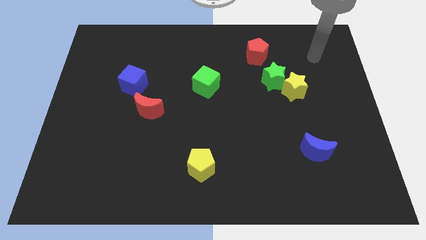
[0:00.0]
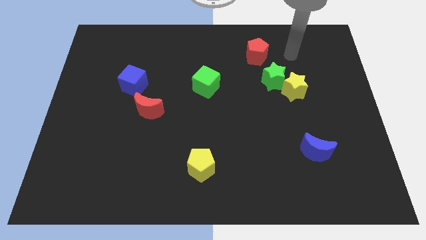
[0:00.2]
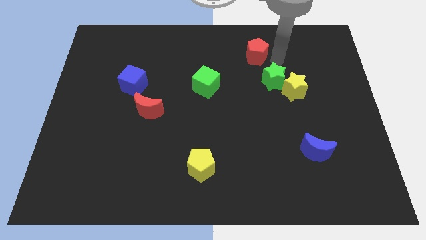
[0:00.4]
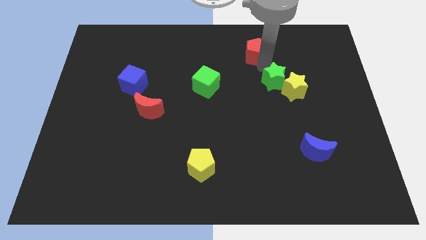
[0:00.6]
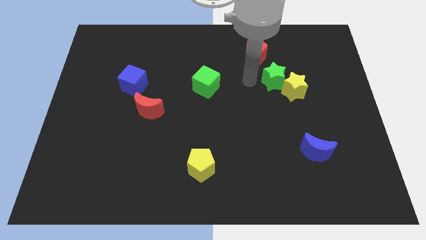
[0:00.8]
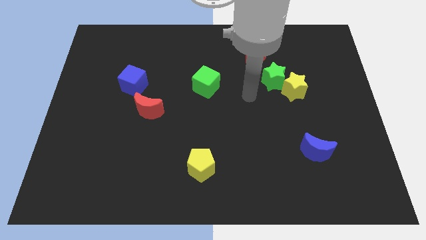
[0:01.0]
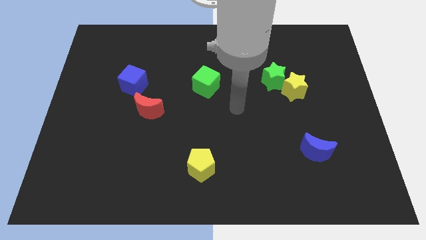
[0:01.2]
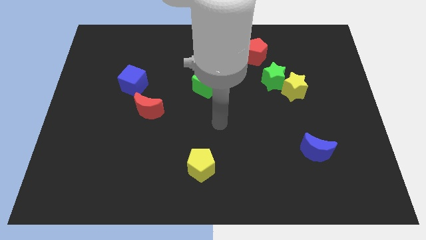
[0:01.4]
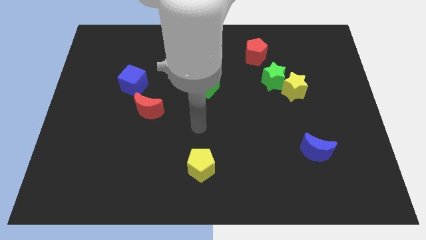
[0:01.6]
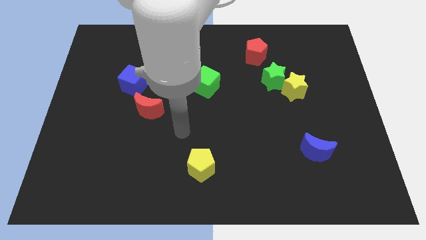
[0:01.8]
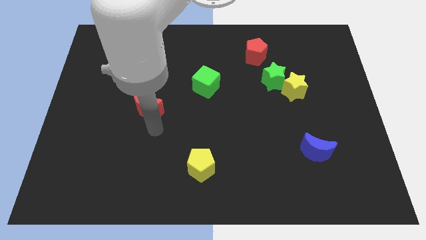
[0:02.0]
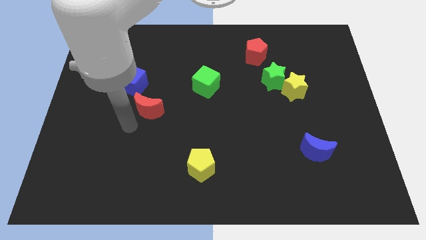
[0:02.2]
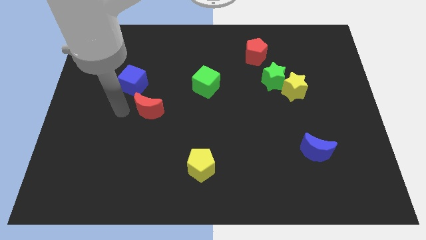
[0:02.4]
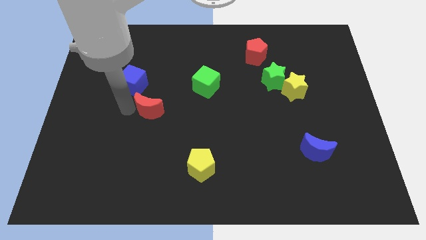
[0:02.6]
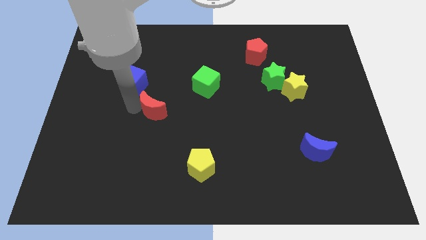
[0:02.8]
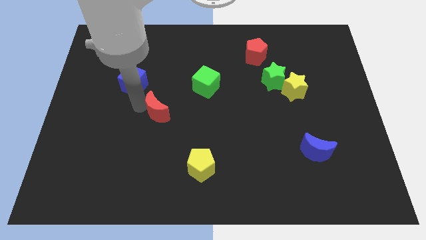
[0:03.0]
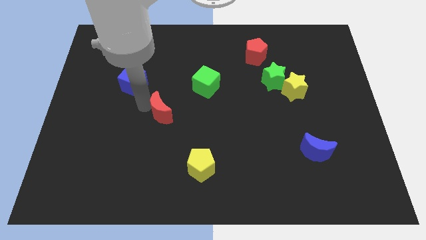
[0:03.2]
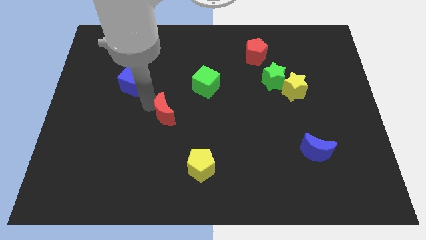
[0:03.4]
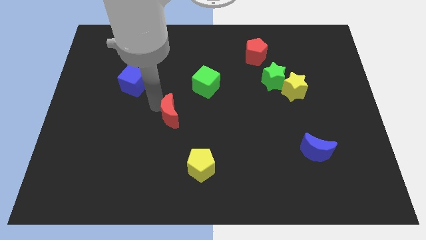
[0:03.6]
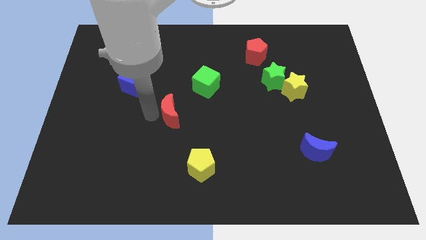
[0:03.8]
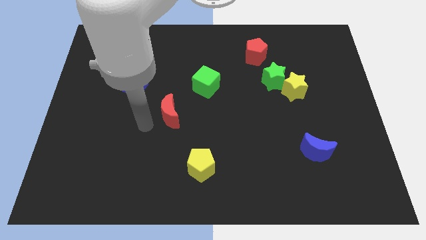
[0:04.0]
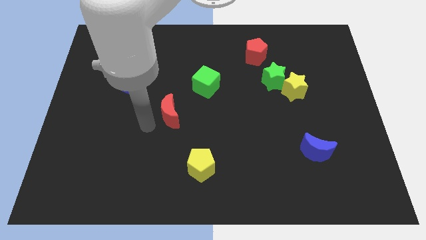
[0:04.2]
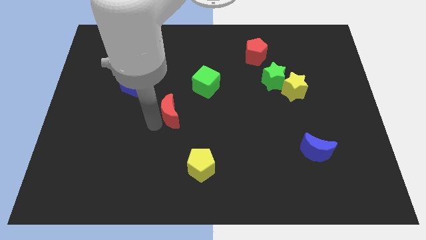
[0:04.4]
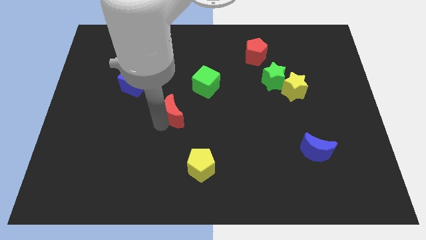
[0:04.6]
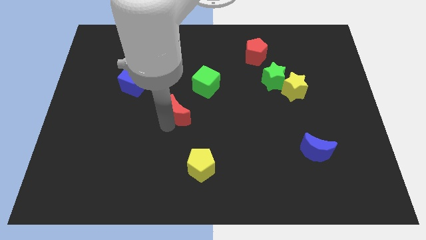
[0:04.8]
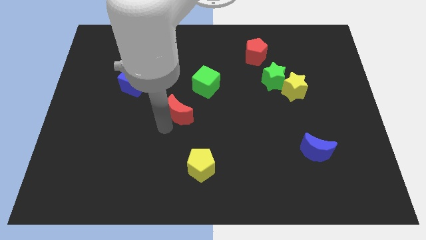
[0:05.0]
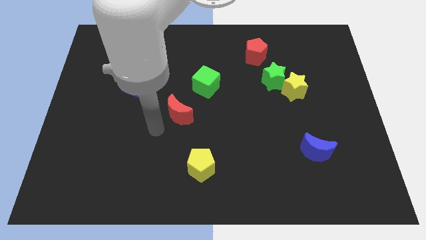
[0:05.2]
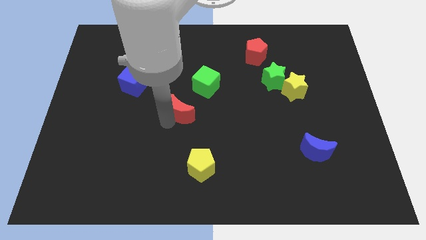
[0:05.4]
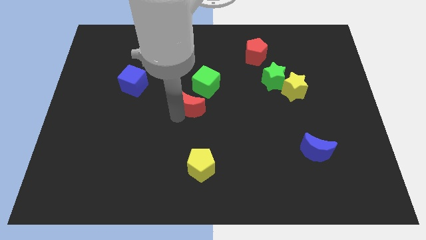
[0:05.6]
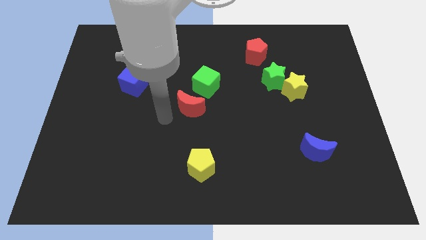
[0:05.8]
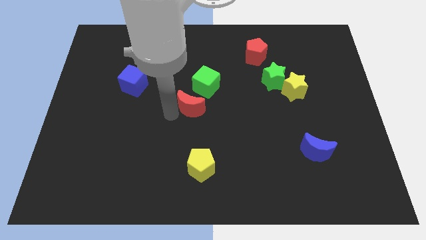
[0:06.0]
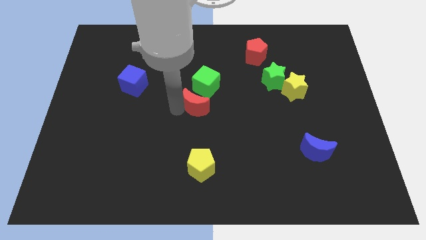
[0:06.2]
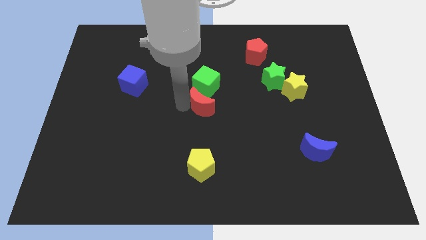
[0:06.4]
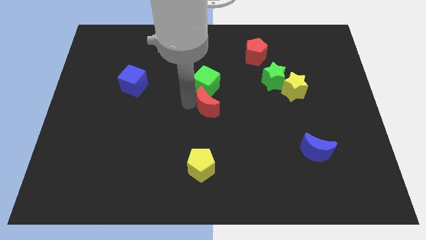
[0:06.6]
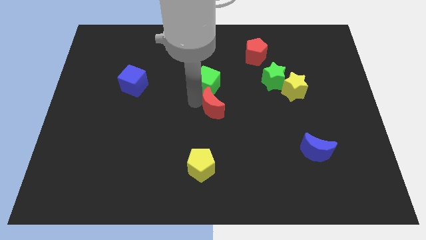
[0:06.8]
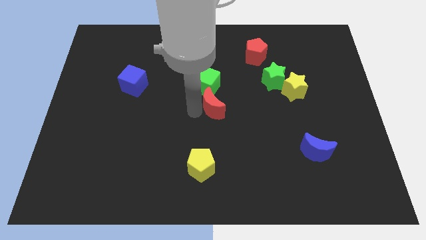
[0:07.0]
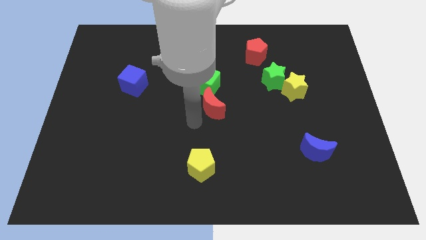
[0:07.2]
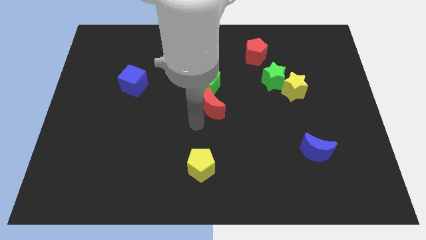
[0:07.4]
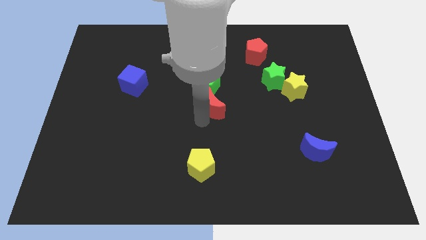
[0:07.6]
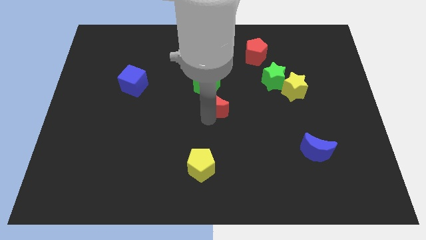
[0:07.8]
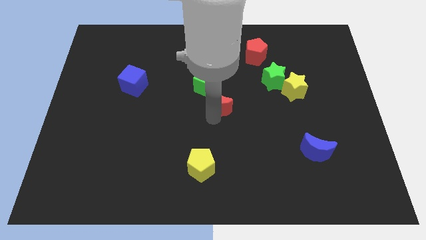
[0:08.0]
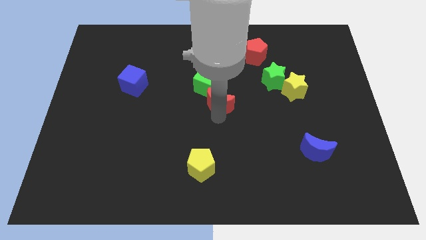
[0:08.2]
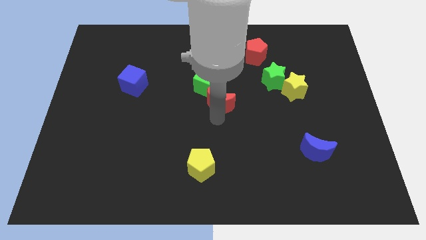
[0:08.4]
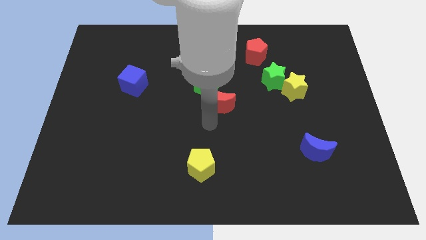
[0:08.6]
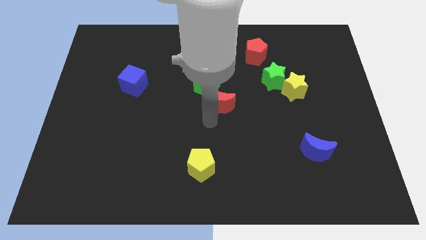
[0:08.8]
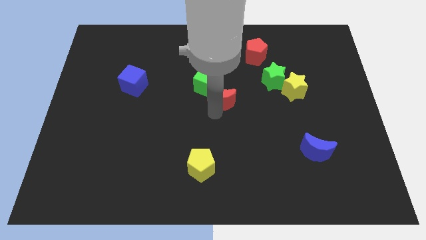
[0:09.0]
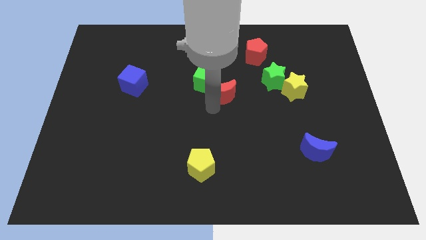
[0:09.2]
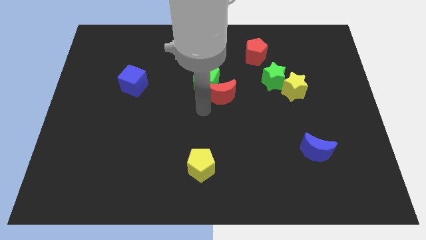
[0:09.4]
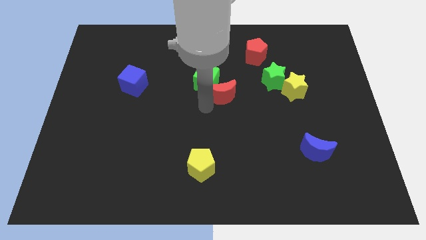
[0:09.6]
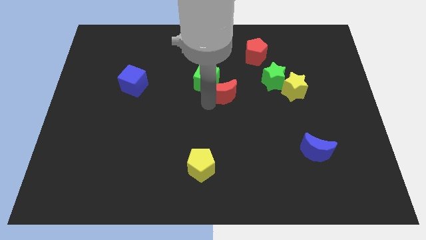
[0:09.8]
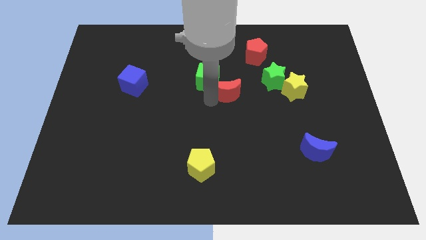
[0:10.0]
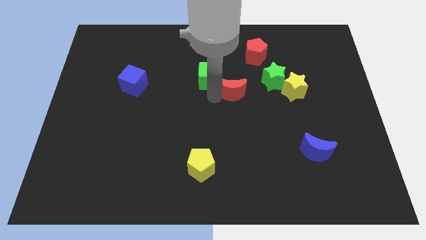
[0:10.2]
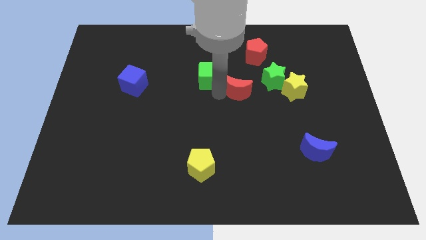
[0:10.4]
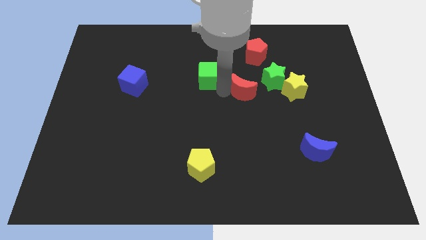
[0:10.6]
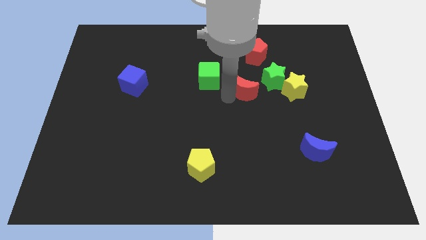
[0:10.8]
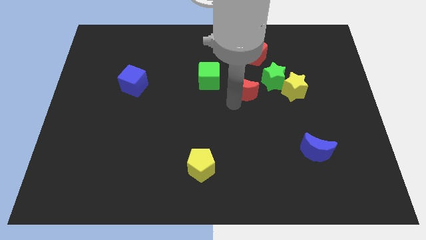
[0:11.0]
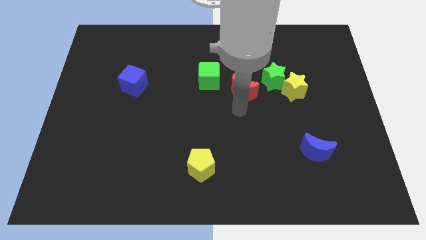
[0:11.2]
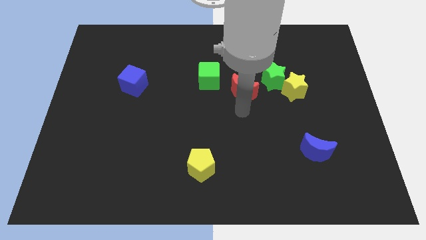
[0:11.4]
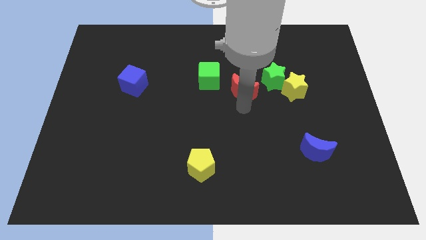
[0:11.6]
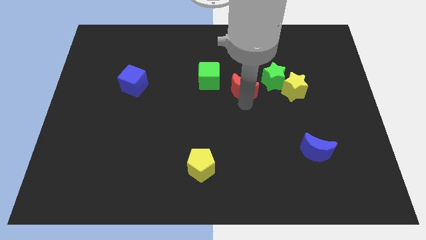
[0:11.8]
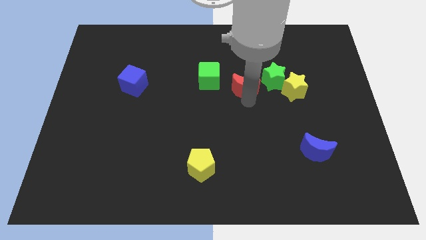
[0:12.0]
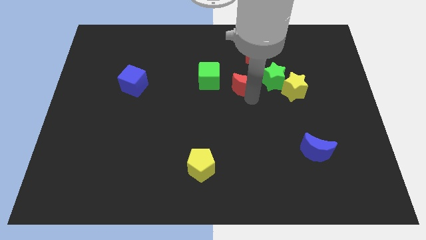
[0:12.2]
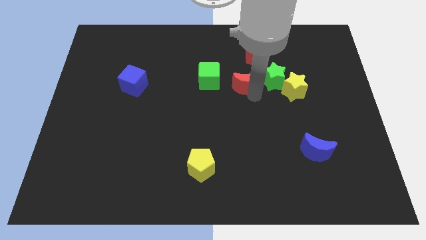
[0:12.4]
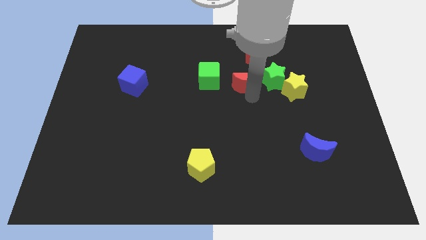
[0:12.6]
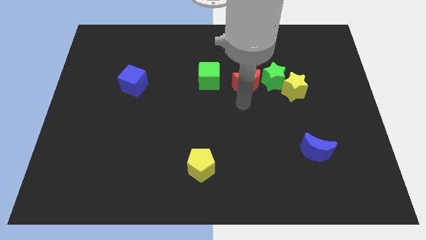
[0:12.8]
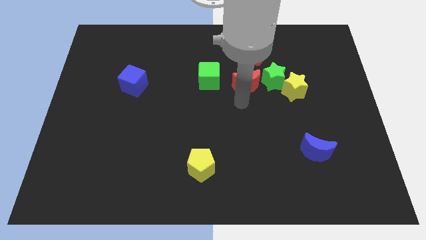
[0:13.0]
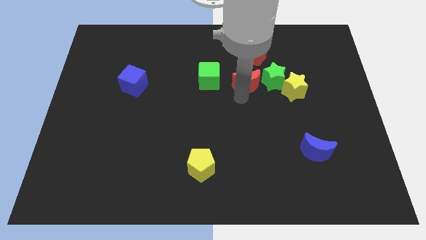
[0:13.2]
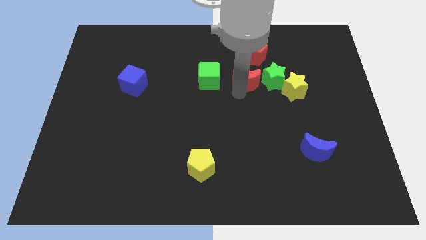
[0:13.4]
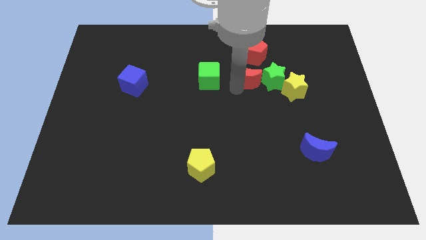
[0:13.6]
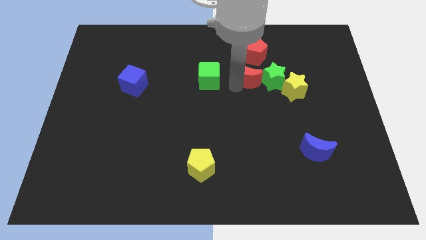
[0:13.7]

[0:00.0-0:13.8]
slide the red moon diagonally up and to the left of the green star

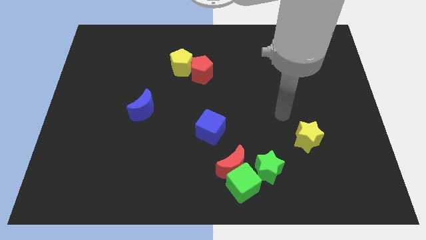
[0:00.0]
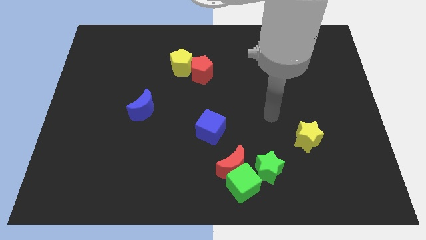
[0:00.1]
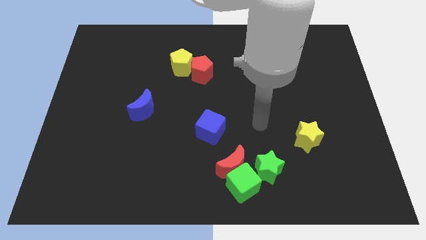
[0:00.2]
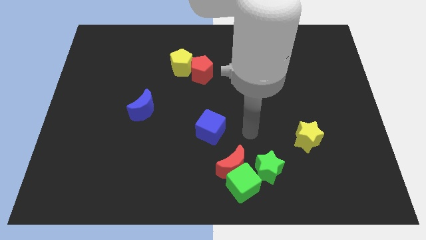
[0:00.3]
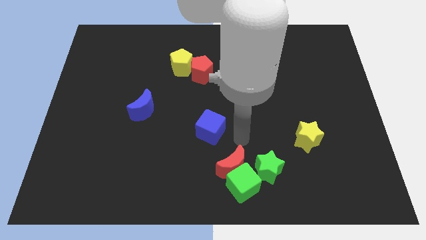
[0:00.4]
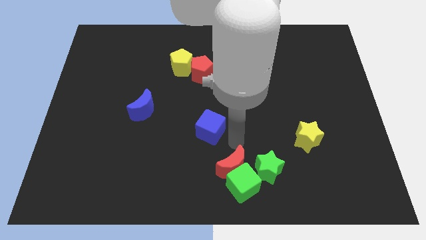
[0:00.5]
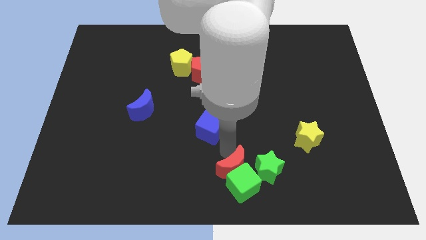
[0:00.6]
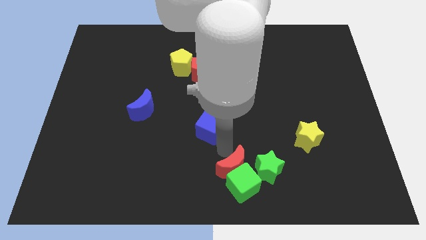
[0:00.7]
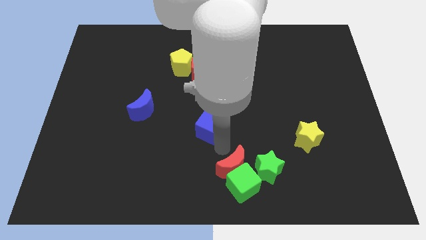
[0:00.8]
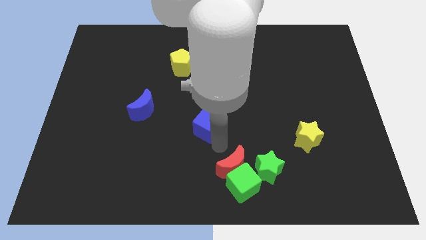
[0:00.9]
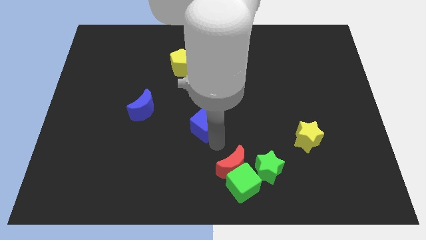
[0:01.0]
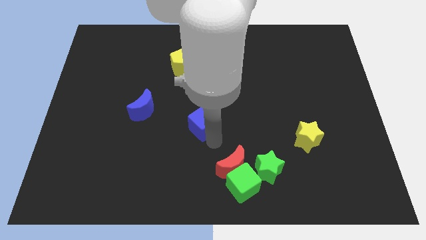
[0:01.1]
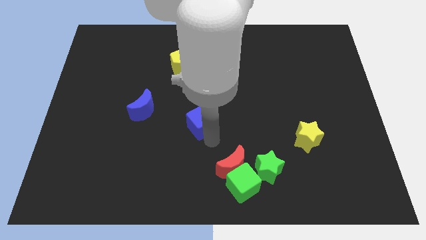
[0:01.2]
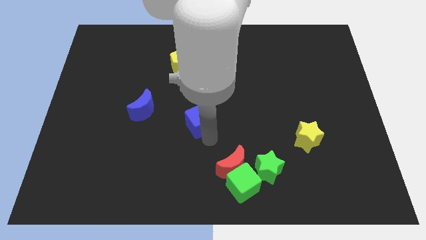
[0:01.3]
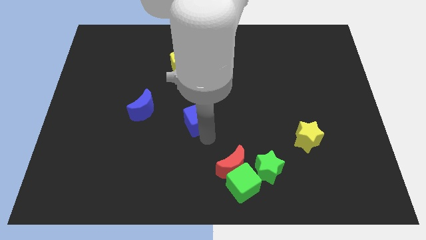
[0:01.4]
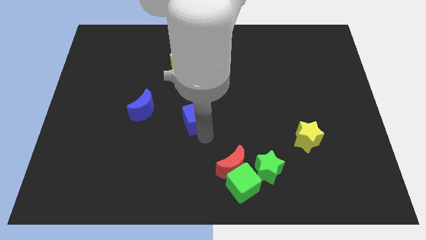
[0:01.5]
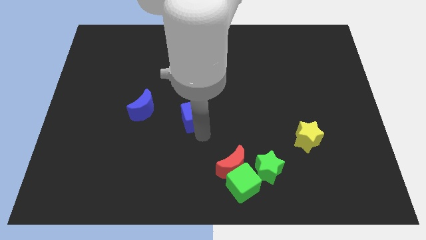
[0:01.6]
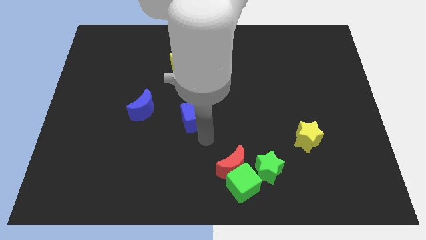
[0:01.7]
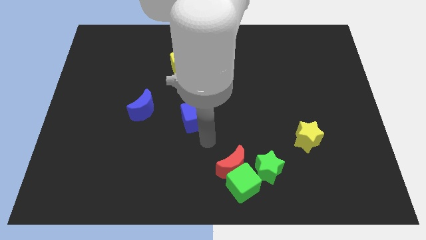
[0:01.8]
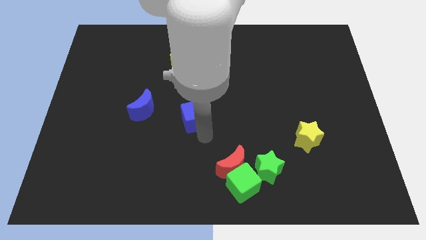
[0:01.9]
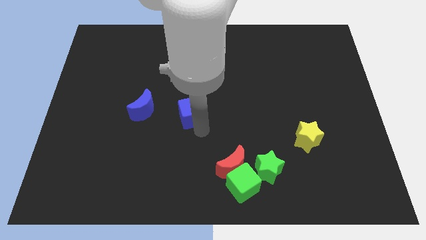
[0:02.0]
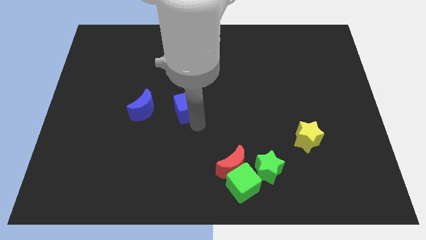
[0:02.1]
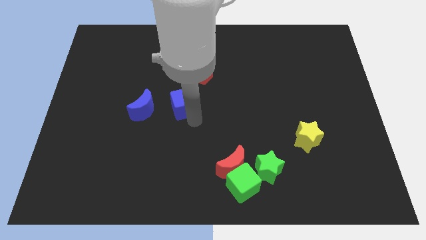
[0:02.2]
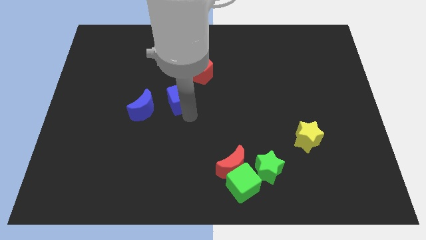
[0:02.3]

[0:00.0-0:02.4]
move the blue cube diagonally down and to the left of the red pentagon
